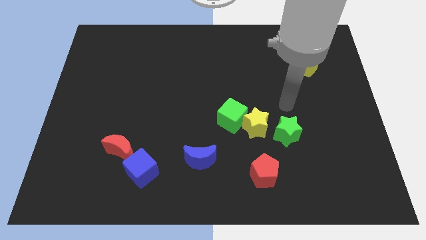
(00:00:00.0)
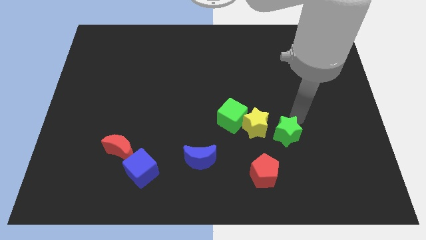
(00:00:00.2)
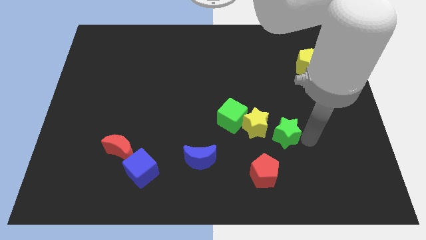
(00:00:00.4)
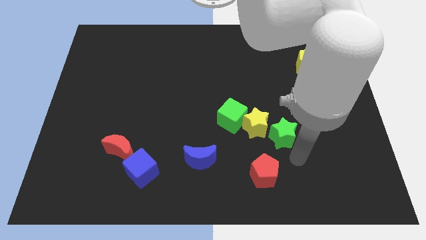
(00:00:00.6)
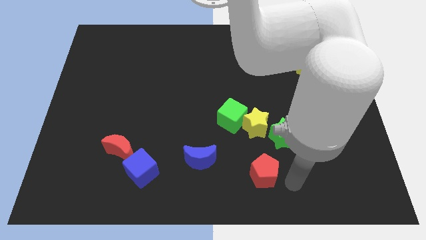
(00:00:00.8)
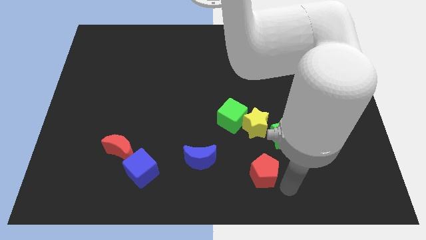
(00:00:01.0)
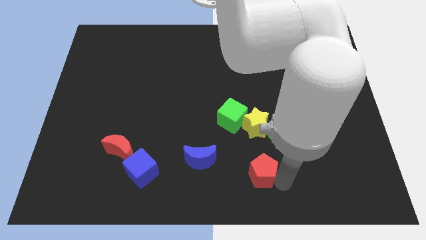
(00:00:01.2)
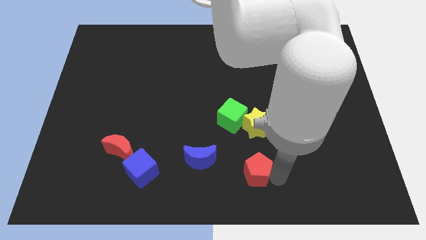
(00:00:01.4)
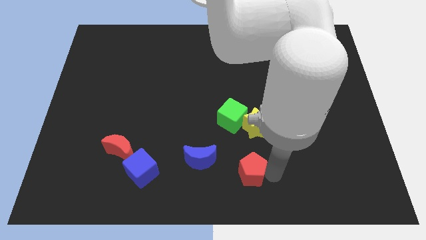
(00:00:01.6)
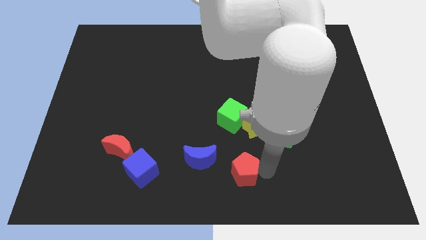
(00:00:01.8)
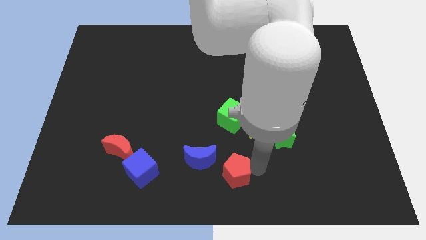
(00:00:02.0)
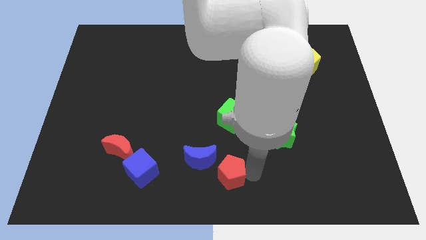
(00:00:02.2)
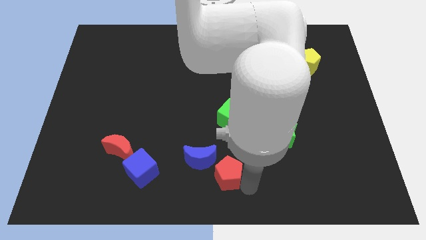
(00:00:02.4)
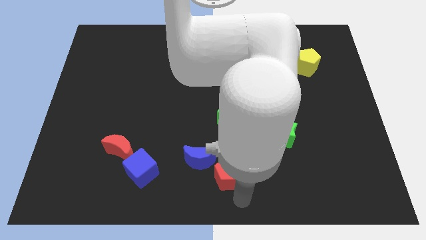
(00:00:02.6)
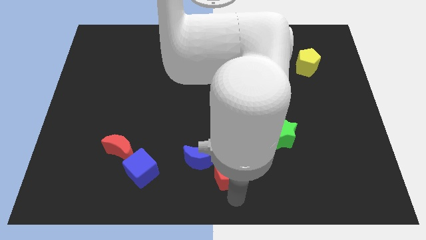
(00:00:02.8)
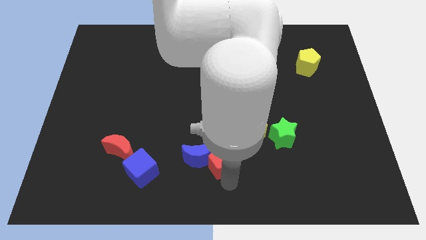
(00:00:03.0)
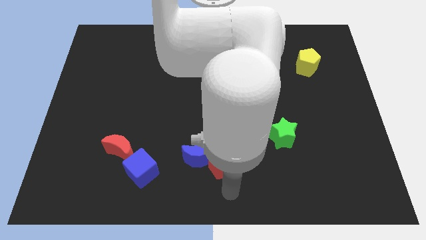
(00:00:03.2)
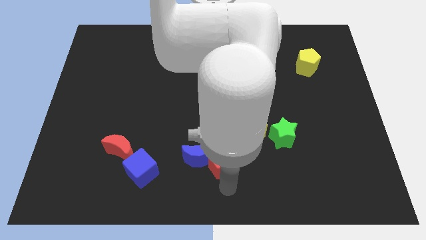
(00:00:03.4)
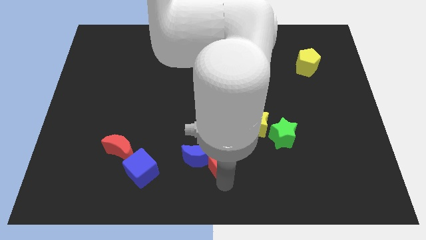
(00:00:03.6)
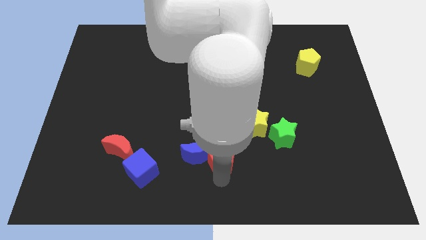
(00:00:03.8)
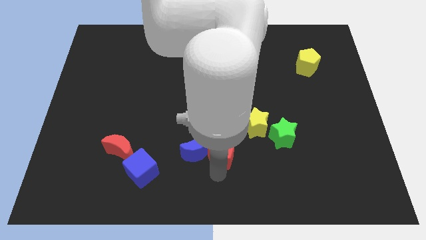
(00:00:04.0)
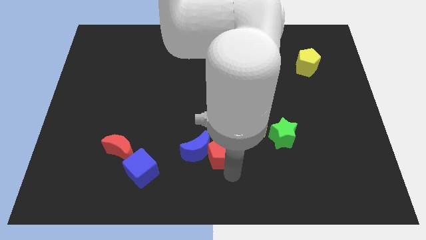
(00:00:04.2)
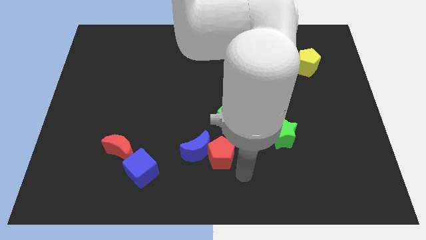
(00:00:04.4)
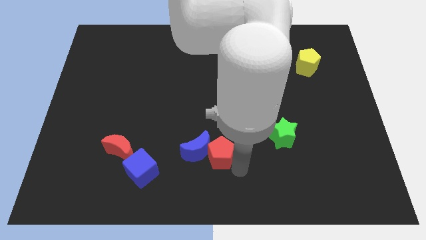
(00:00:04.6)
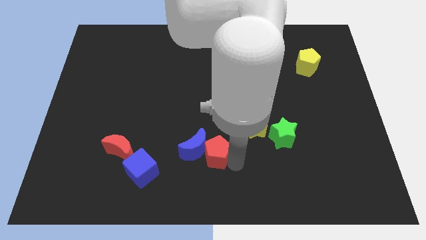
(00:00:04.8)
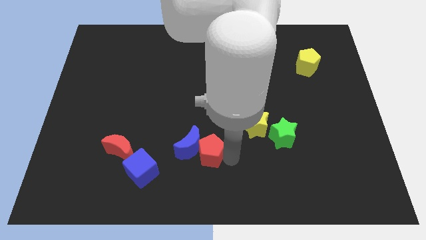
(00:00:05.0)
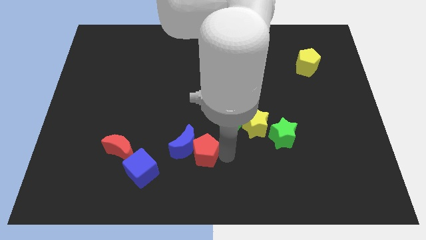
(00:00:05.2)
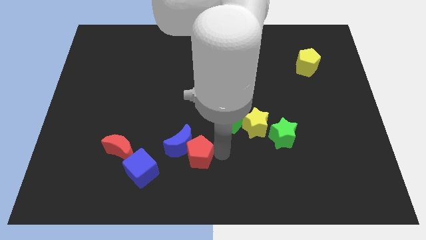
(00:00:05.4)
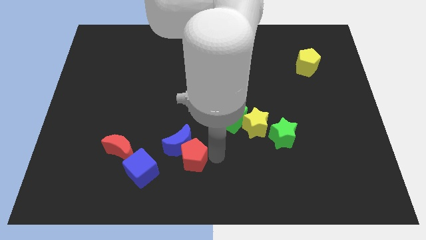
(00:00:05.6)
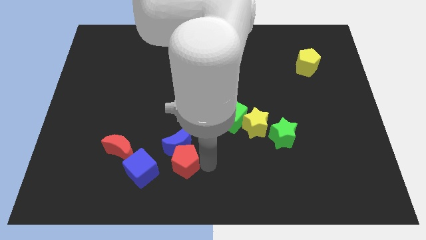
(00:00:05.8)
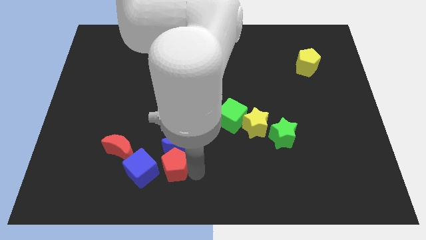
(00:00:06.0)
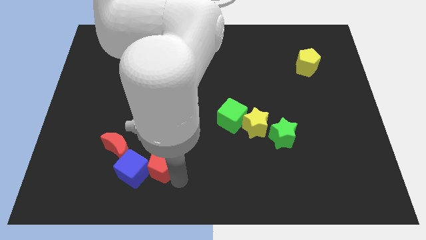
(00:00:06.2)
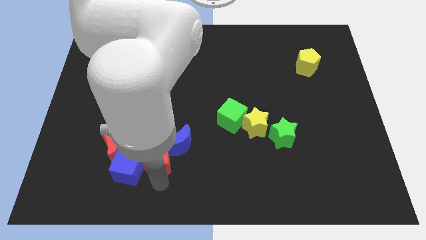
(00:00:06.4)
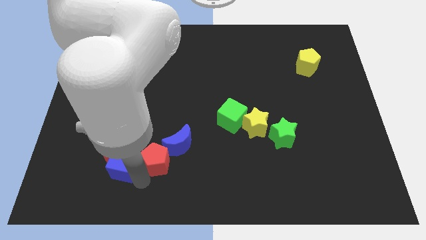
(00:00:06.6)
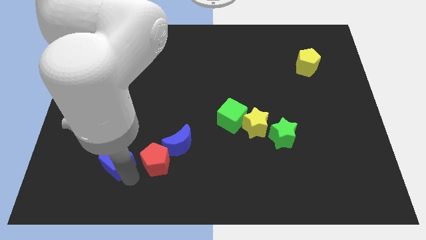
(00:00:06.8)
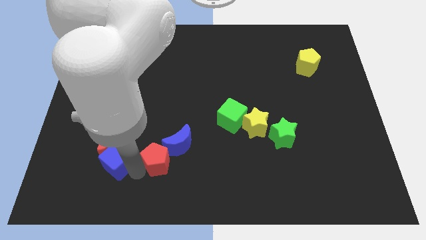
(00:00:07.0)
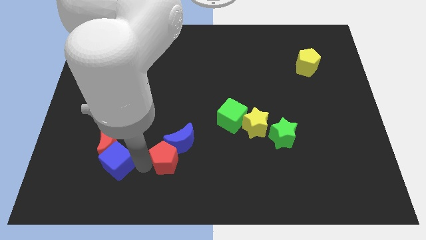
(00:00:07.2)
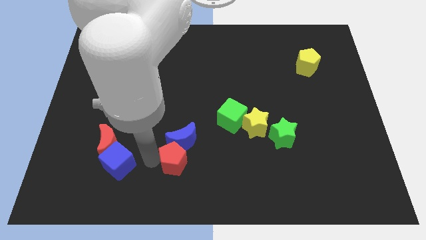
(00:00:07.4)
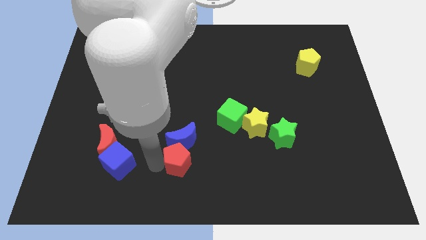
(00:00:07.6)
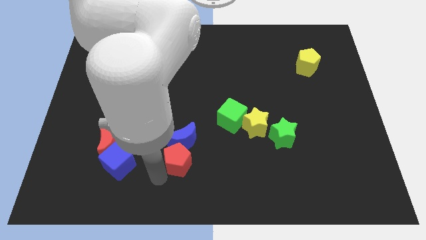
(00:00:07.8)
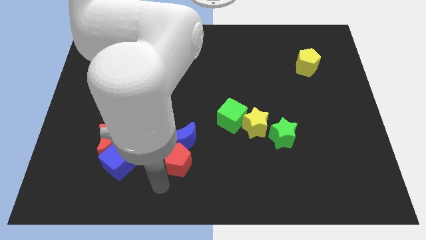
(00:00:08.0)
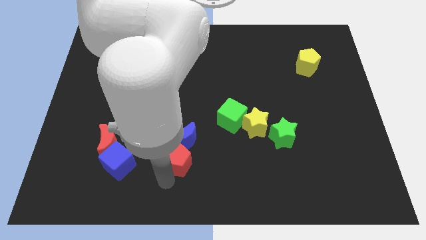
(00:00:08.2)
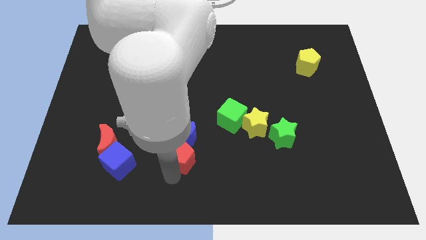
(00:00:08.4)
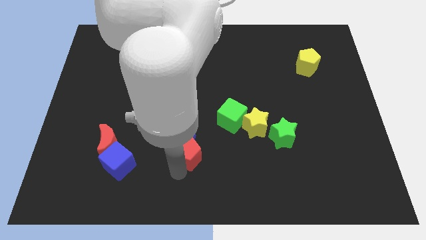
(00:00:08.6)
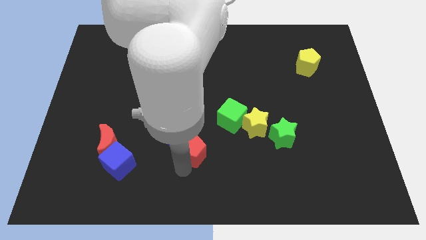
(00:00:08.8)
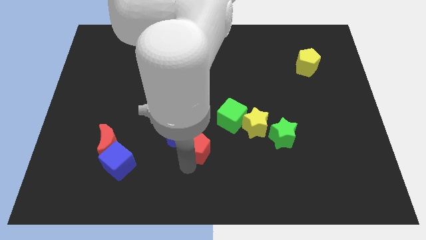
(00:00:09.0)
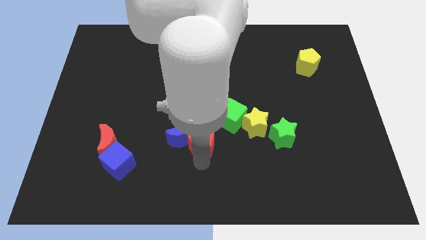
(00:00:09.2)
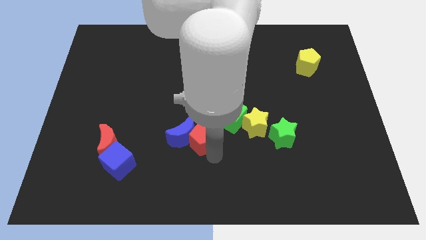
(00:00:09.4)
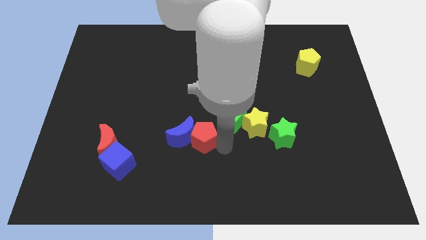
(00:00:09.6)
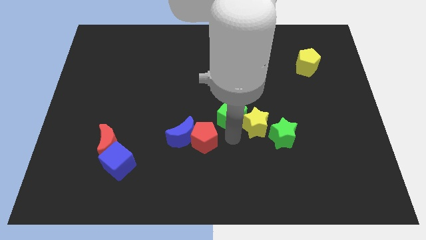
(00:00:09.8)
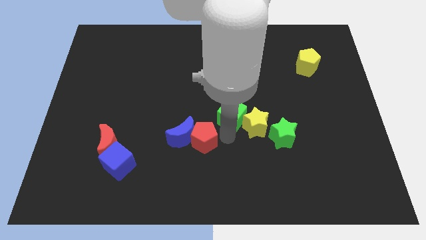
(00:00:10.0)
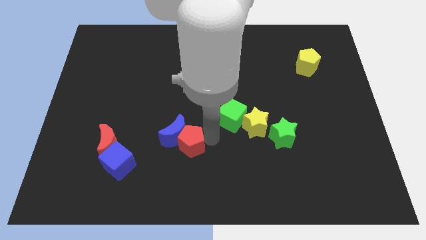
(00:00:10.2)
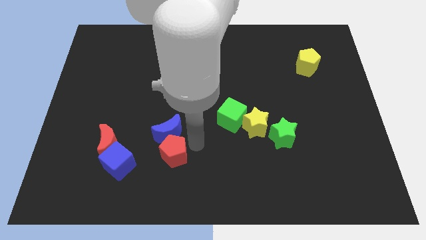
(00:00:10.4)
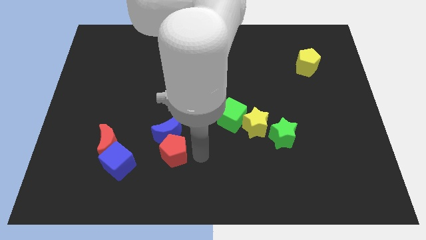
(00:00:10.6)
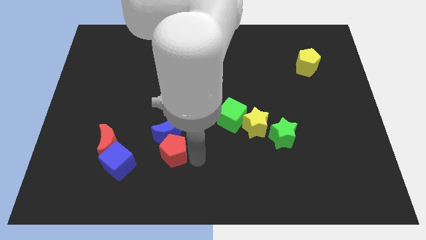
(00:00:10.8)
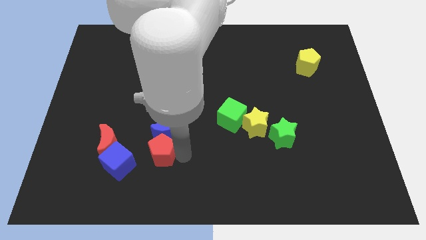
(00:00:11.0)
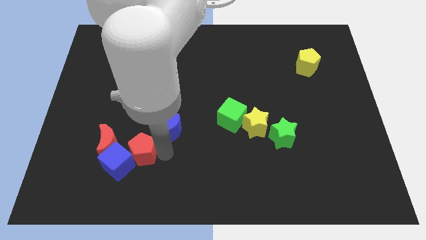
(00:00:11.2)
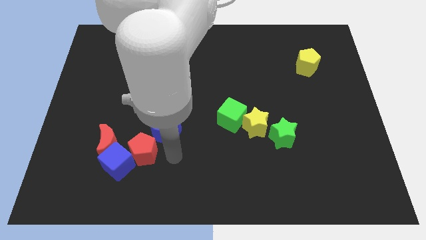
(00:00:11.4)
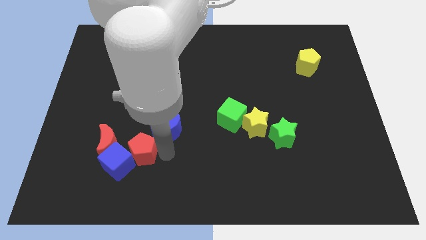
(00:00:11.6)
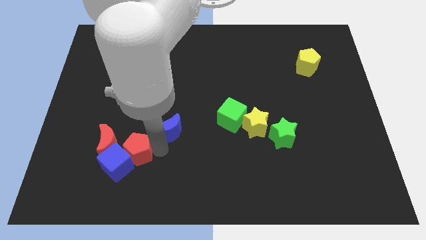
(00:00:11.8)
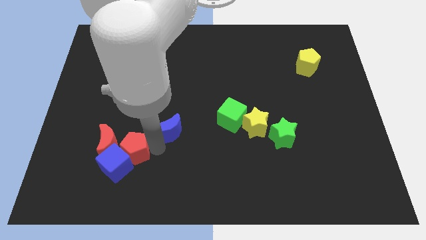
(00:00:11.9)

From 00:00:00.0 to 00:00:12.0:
put the red pentagon to the red moon

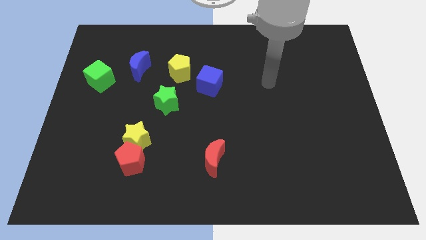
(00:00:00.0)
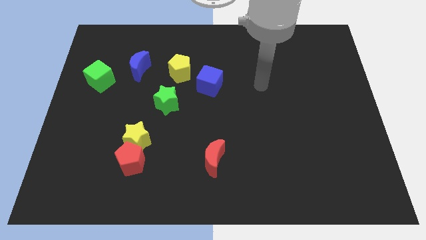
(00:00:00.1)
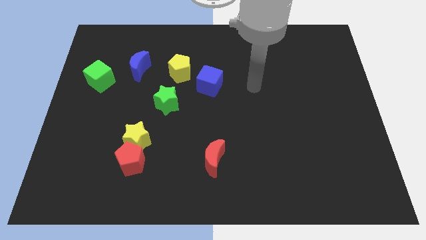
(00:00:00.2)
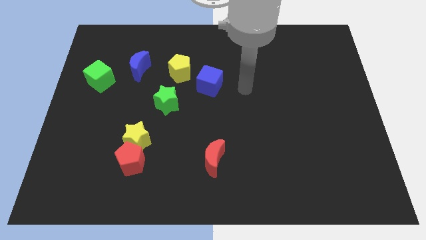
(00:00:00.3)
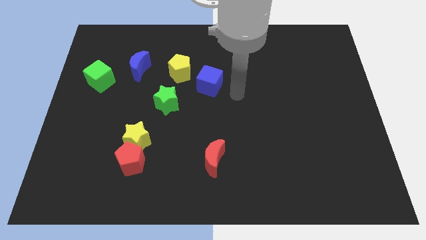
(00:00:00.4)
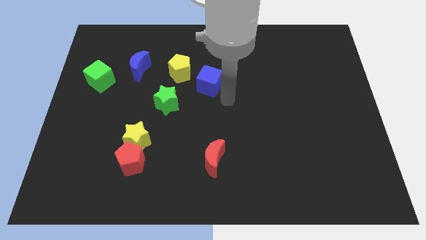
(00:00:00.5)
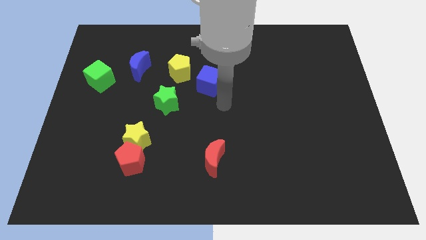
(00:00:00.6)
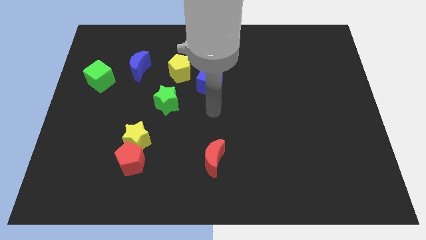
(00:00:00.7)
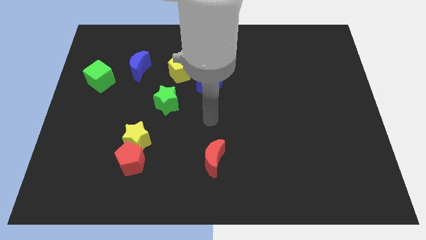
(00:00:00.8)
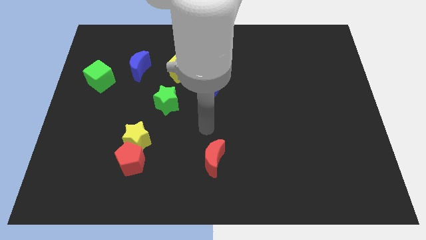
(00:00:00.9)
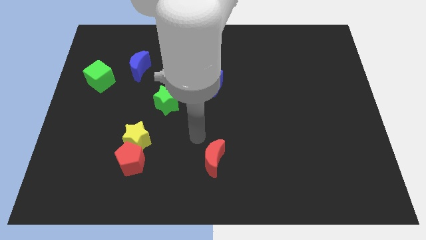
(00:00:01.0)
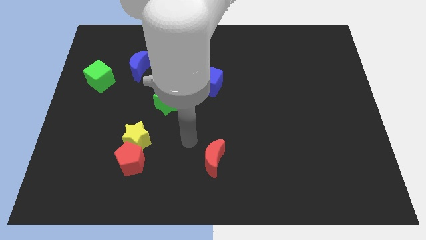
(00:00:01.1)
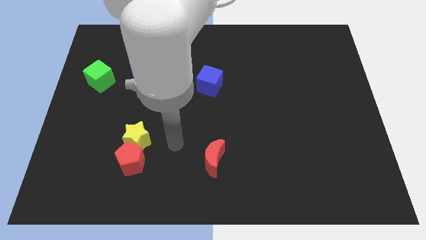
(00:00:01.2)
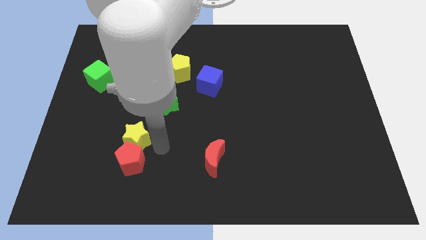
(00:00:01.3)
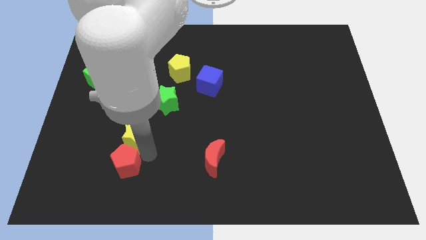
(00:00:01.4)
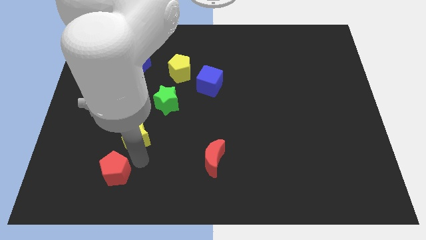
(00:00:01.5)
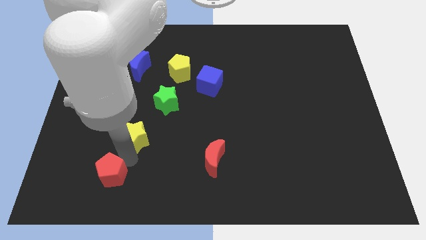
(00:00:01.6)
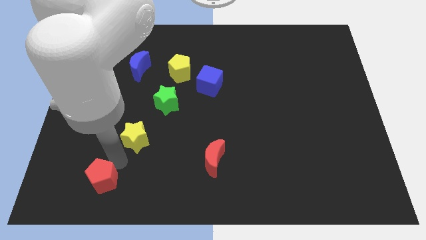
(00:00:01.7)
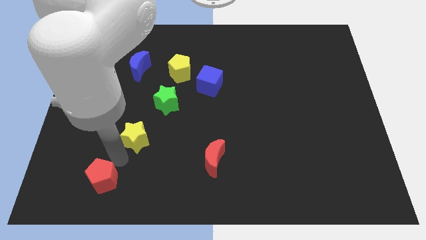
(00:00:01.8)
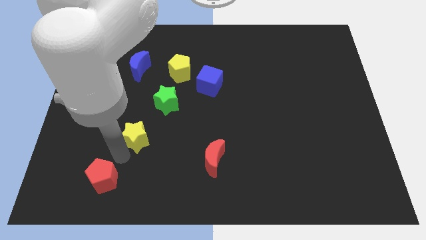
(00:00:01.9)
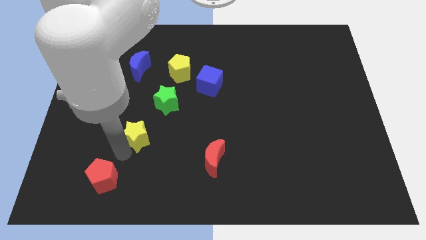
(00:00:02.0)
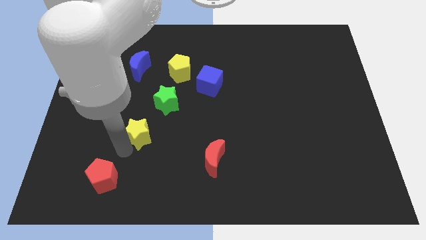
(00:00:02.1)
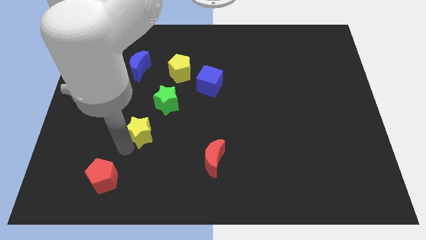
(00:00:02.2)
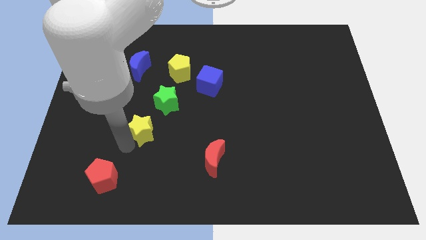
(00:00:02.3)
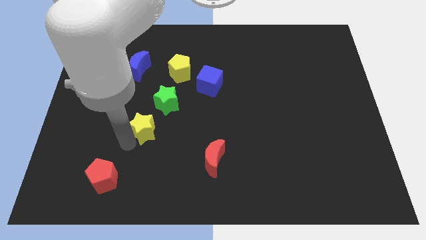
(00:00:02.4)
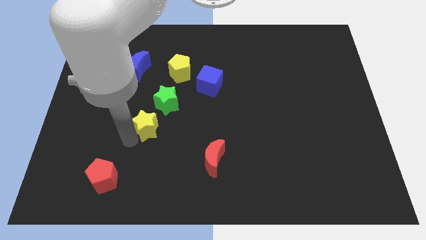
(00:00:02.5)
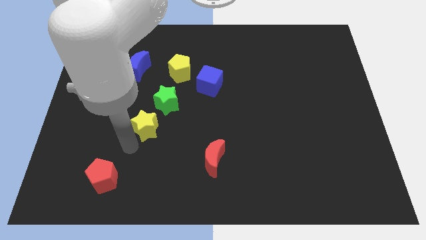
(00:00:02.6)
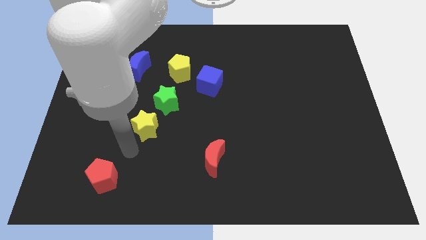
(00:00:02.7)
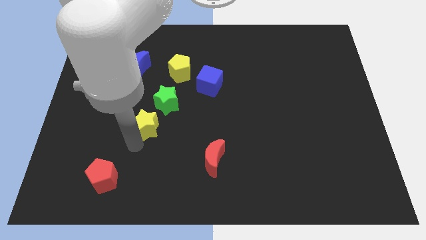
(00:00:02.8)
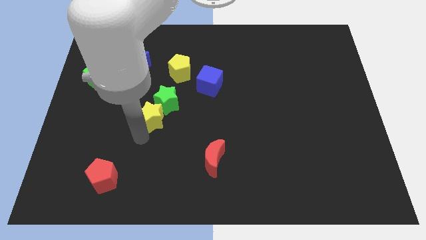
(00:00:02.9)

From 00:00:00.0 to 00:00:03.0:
push the yellow star towards the green star
